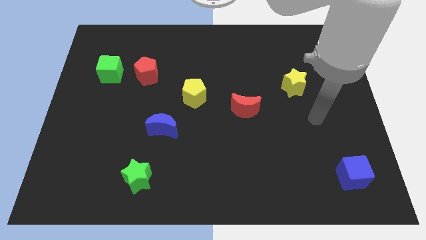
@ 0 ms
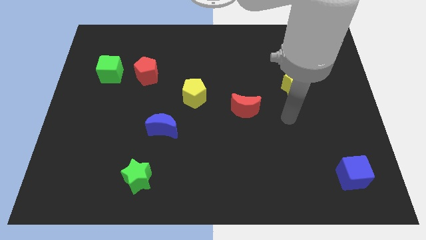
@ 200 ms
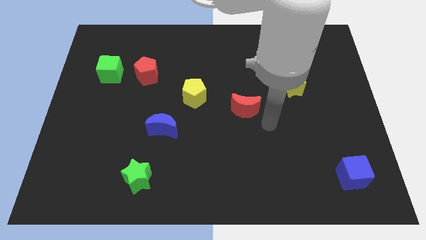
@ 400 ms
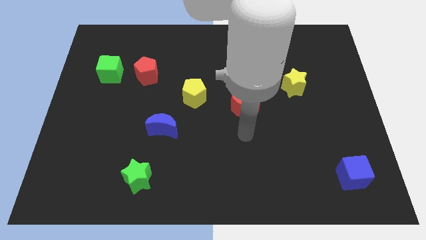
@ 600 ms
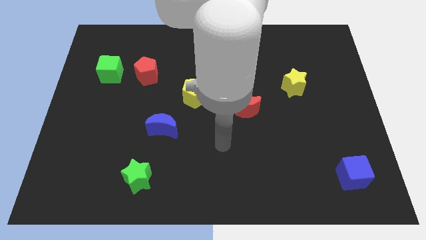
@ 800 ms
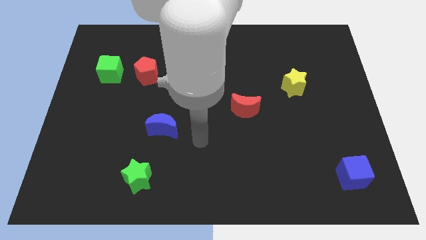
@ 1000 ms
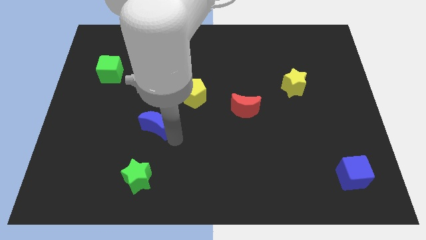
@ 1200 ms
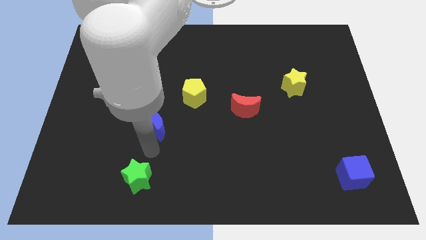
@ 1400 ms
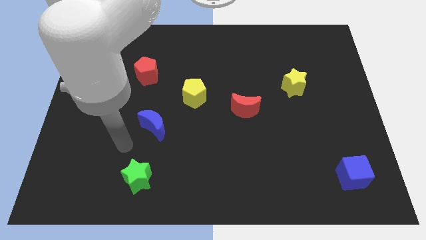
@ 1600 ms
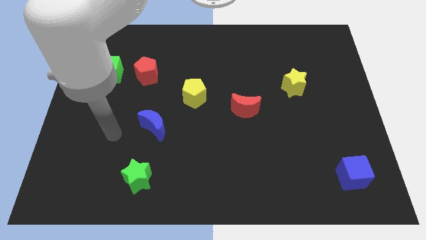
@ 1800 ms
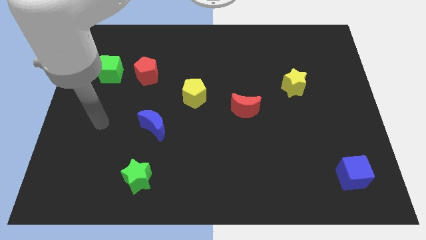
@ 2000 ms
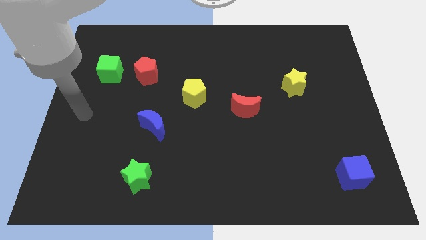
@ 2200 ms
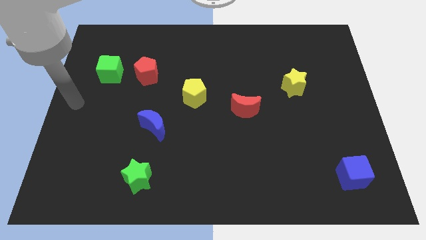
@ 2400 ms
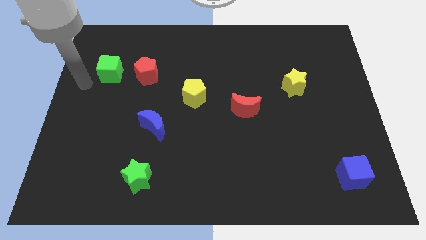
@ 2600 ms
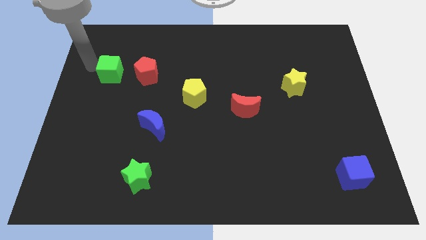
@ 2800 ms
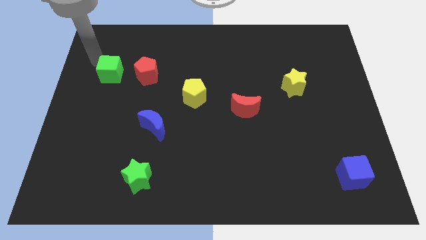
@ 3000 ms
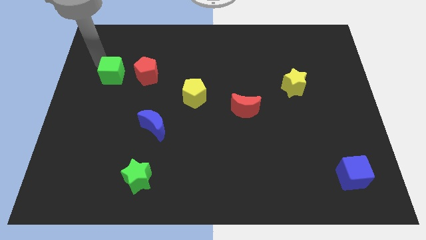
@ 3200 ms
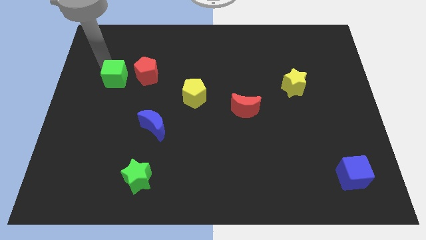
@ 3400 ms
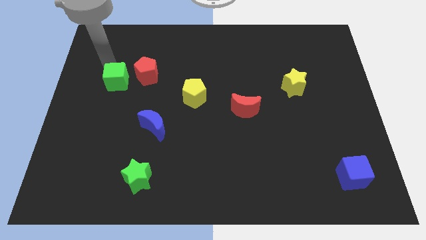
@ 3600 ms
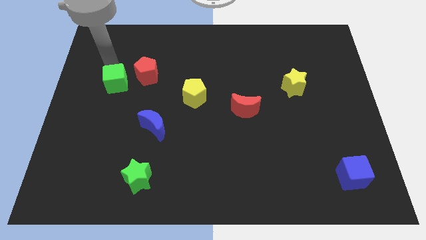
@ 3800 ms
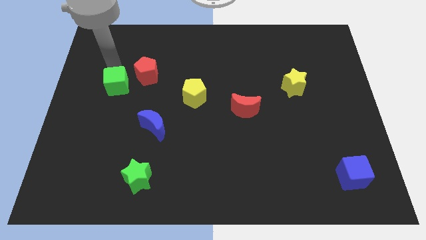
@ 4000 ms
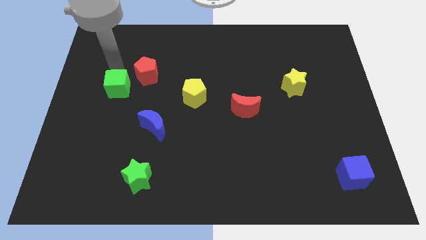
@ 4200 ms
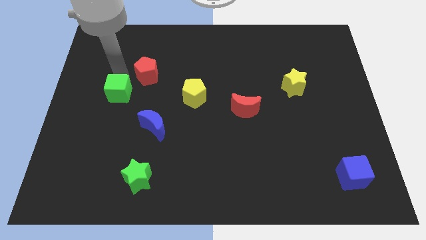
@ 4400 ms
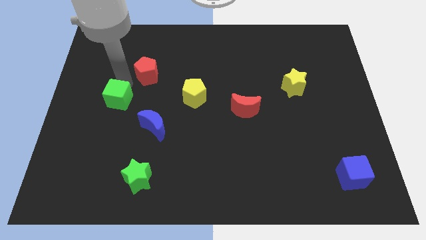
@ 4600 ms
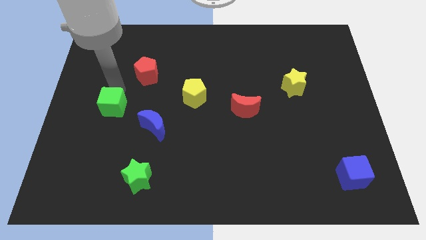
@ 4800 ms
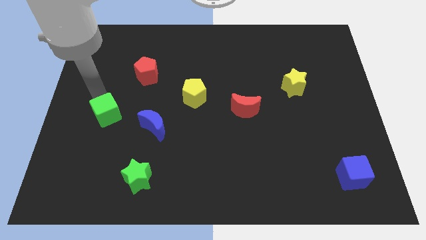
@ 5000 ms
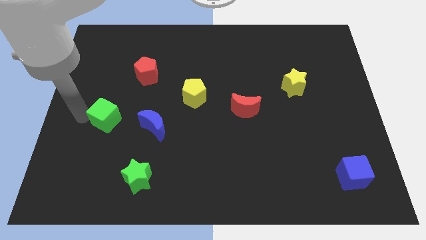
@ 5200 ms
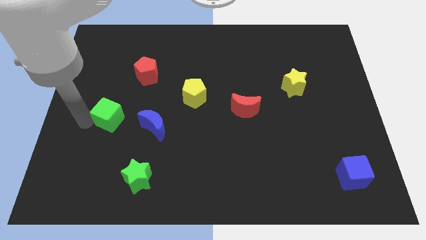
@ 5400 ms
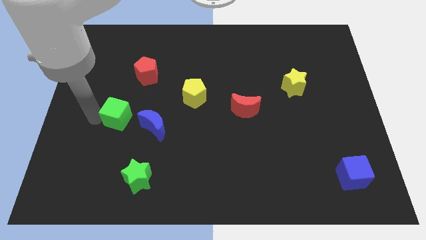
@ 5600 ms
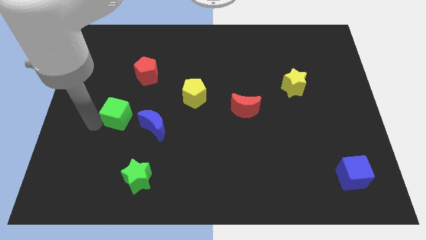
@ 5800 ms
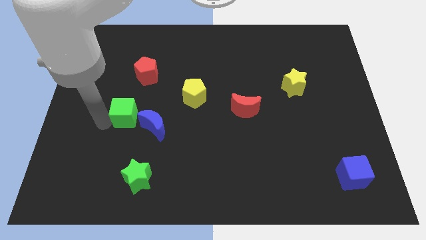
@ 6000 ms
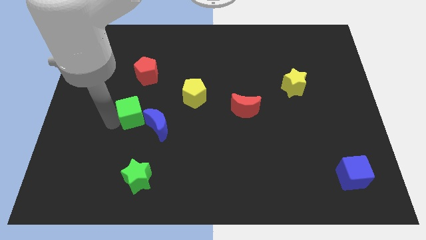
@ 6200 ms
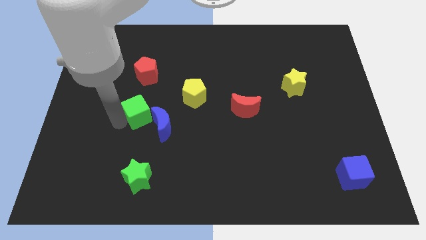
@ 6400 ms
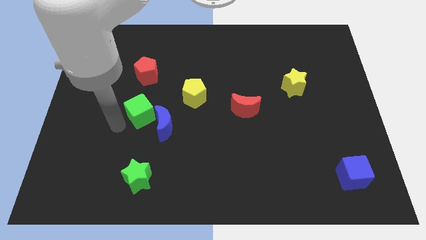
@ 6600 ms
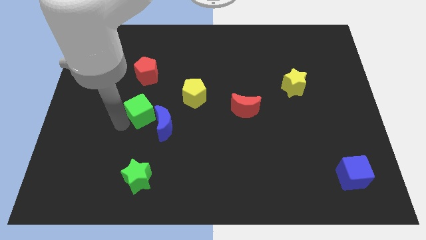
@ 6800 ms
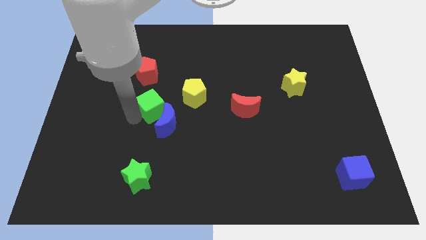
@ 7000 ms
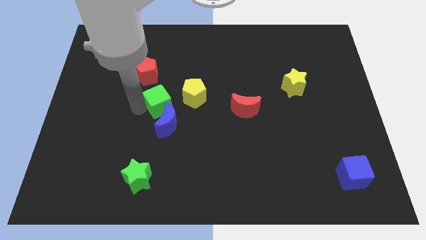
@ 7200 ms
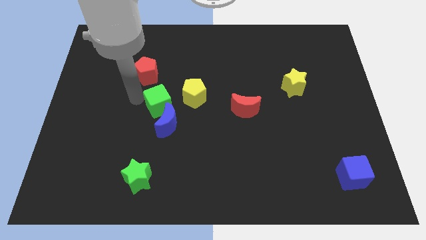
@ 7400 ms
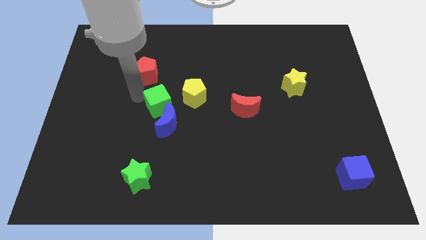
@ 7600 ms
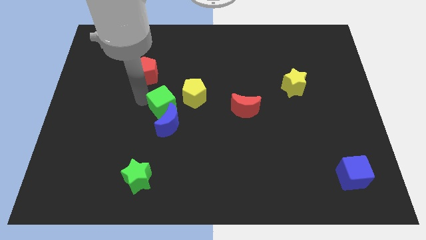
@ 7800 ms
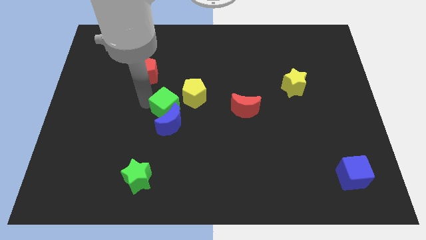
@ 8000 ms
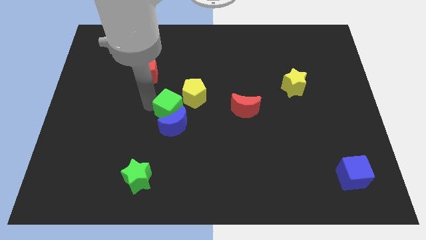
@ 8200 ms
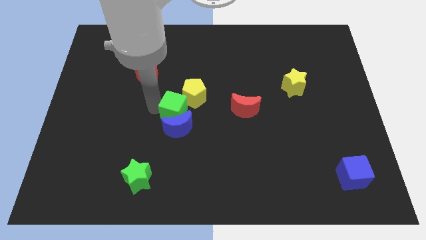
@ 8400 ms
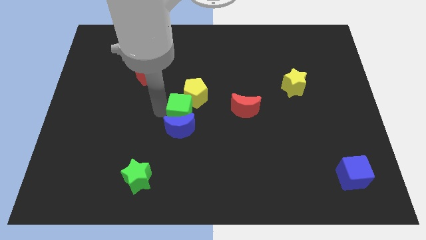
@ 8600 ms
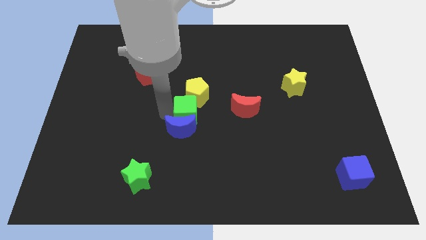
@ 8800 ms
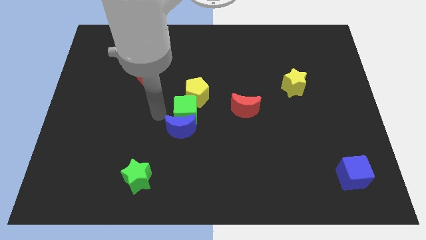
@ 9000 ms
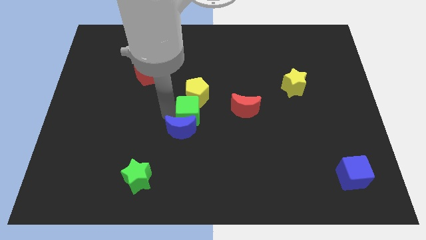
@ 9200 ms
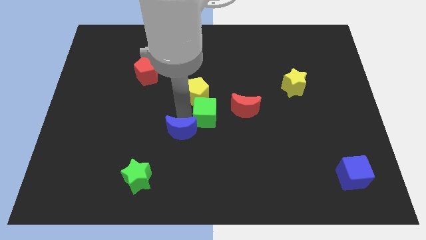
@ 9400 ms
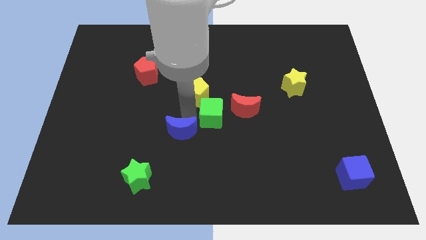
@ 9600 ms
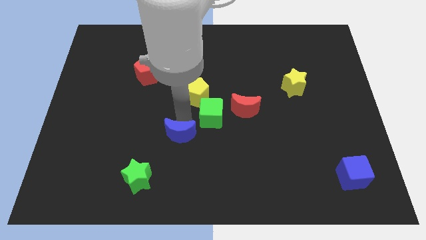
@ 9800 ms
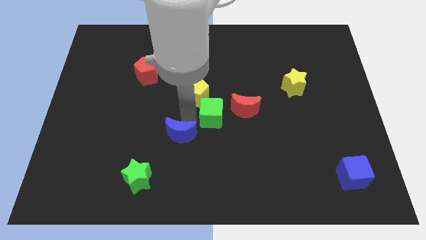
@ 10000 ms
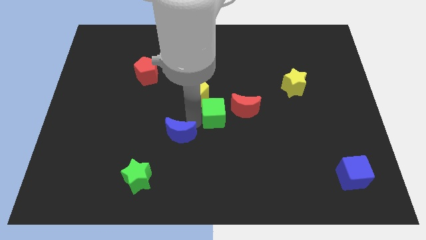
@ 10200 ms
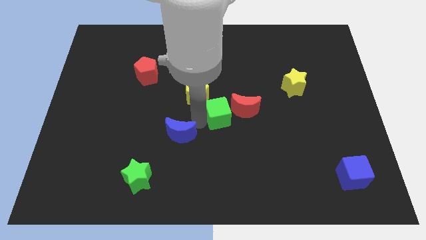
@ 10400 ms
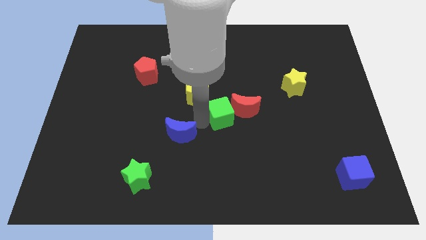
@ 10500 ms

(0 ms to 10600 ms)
slide the green cube close to the red moon

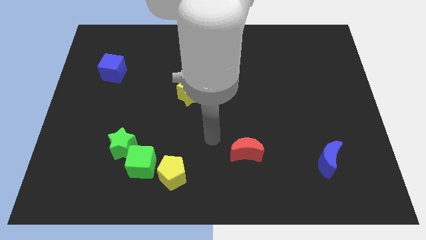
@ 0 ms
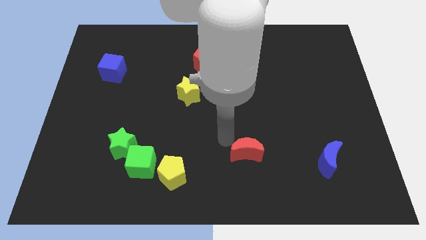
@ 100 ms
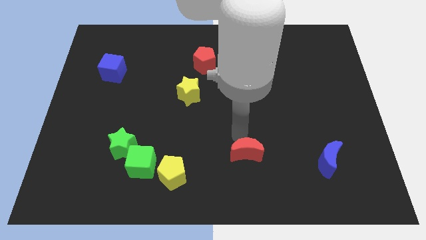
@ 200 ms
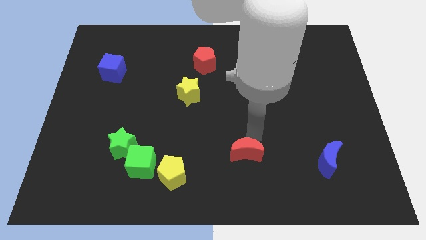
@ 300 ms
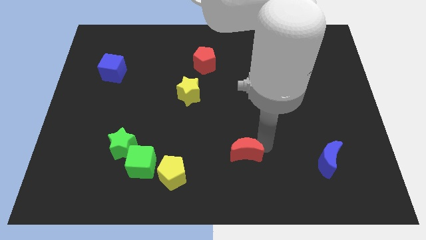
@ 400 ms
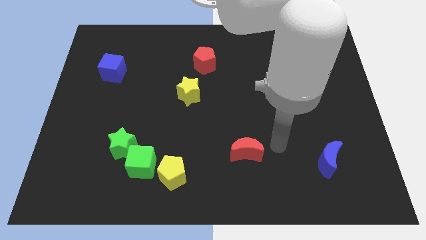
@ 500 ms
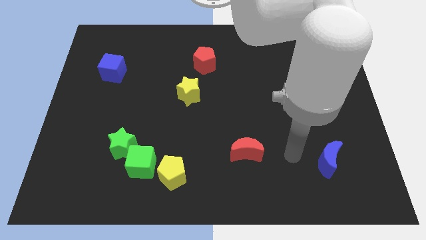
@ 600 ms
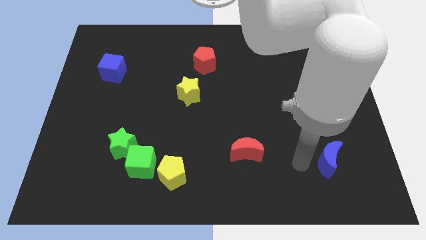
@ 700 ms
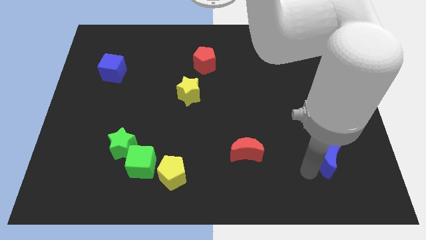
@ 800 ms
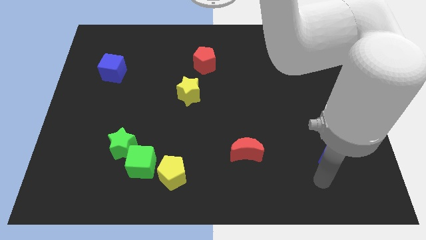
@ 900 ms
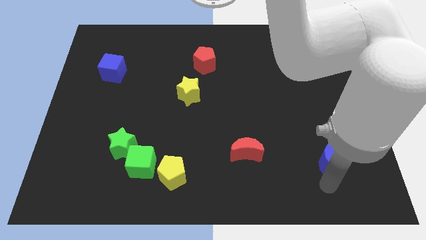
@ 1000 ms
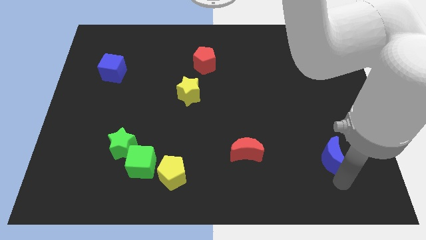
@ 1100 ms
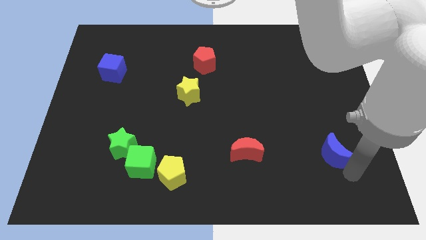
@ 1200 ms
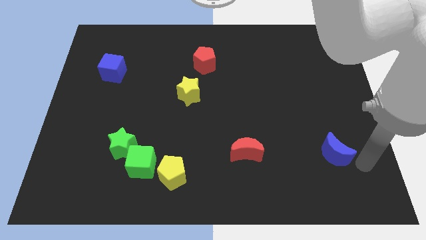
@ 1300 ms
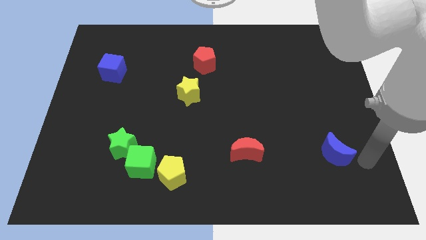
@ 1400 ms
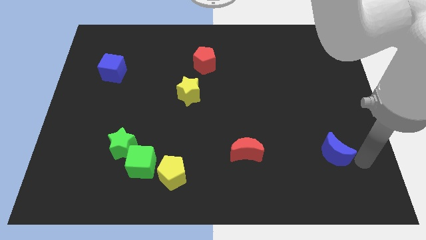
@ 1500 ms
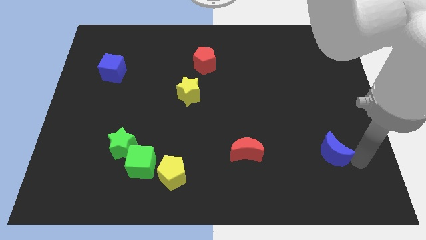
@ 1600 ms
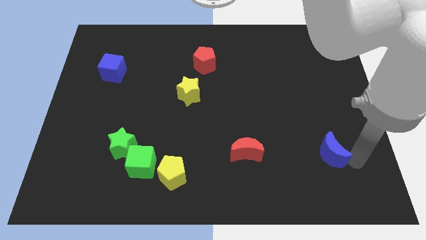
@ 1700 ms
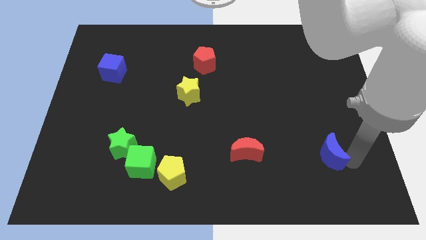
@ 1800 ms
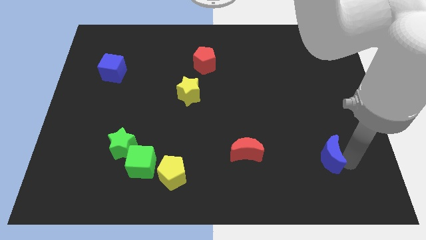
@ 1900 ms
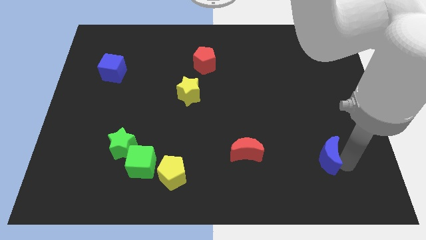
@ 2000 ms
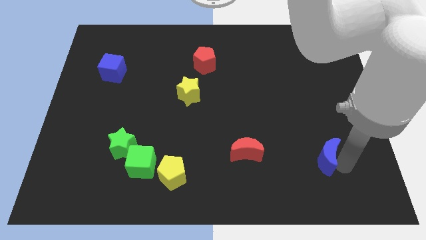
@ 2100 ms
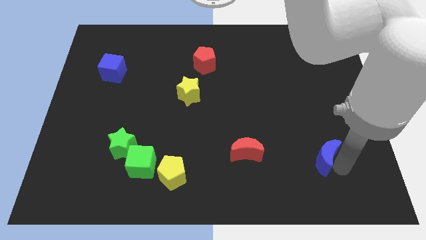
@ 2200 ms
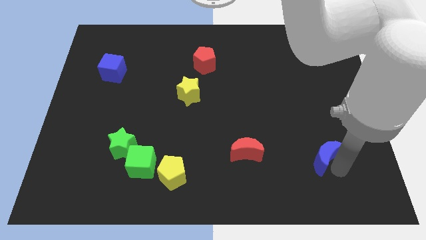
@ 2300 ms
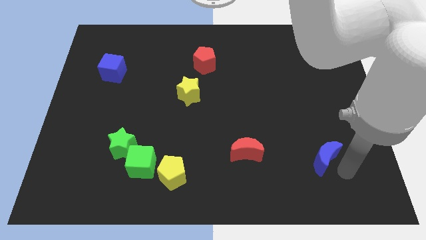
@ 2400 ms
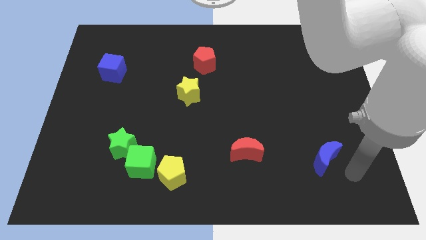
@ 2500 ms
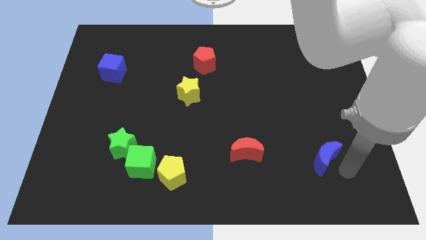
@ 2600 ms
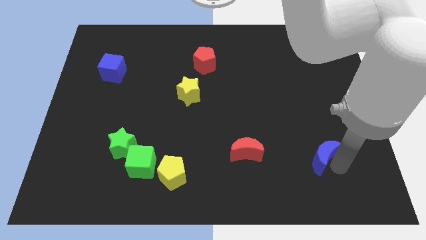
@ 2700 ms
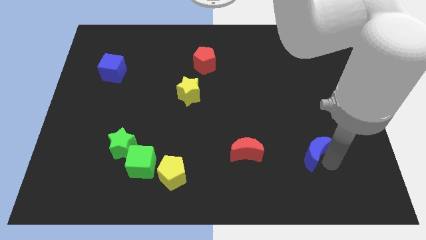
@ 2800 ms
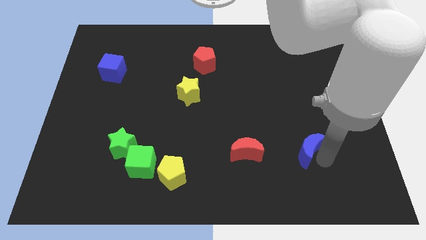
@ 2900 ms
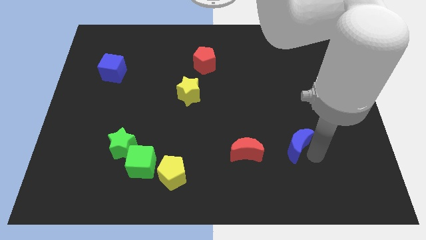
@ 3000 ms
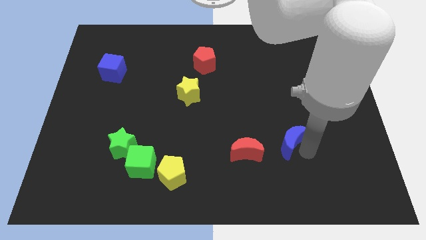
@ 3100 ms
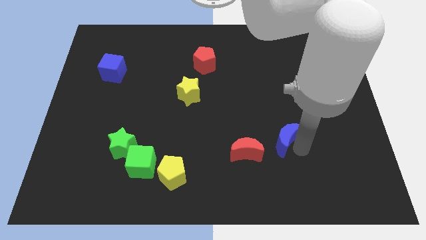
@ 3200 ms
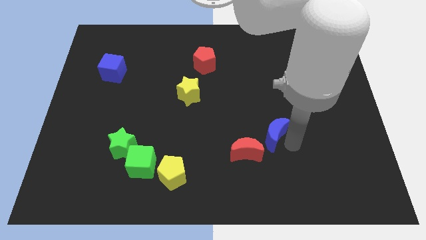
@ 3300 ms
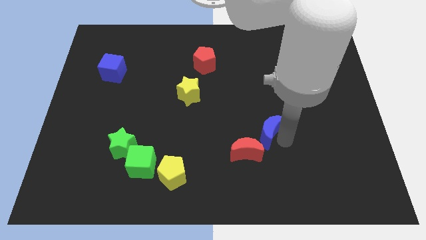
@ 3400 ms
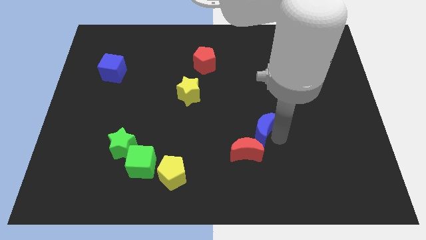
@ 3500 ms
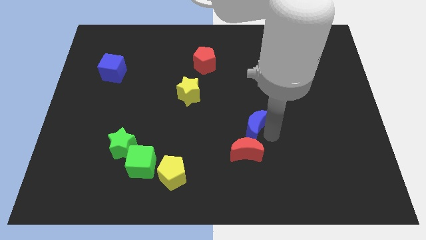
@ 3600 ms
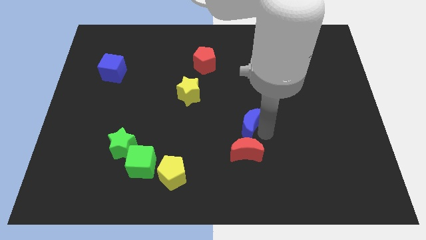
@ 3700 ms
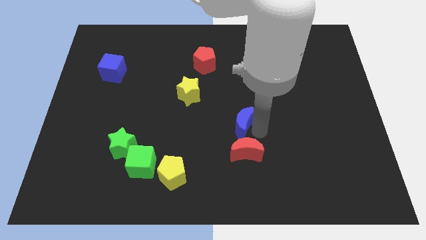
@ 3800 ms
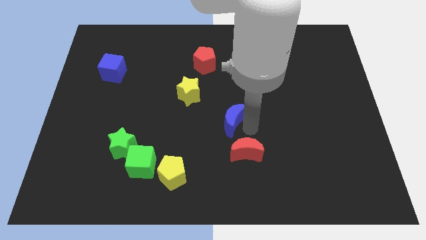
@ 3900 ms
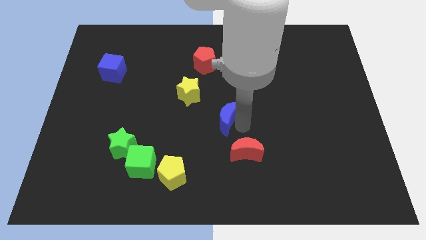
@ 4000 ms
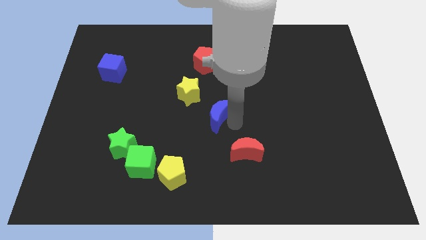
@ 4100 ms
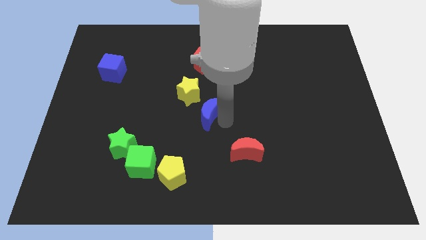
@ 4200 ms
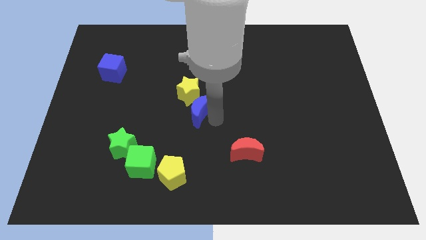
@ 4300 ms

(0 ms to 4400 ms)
put the blue moon next to the yellow star
